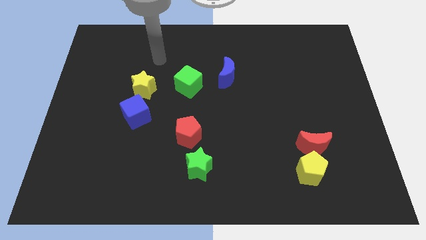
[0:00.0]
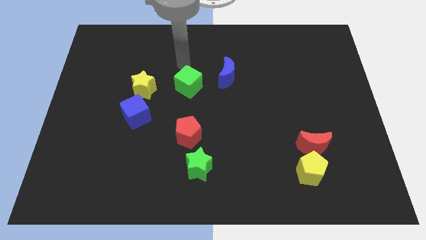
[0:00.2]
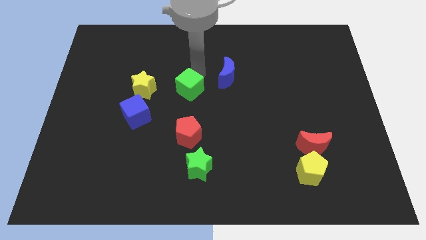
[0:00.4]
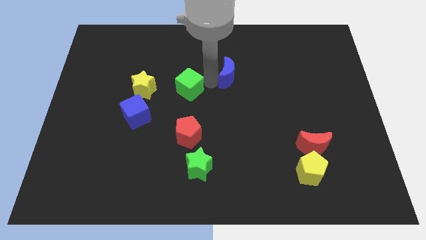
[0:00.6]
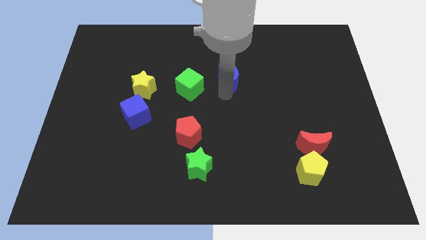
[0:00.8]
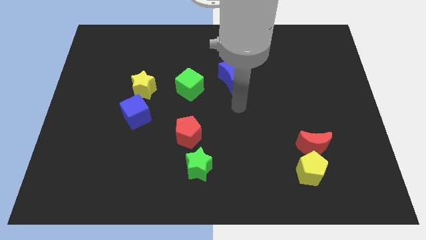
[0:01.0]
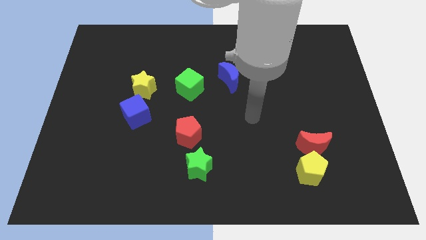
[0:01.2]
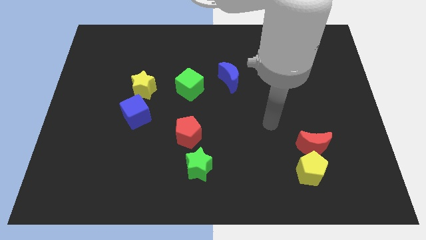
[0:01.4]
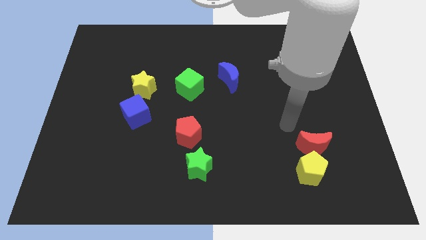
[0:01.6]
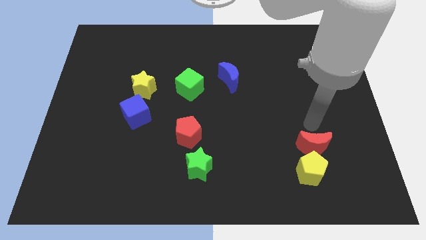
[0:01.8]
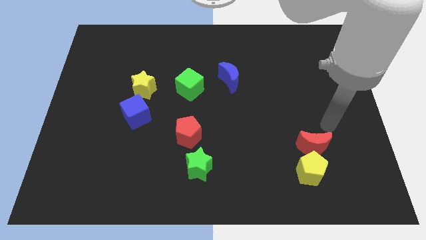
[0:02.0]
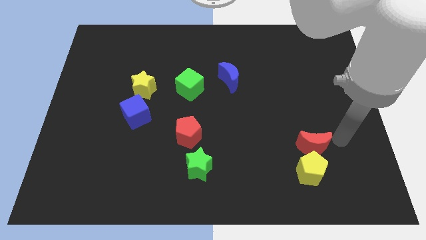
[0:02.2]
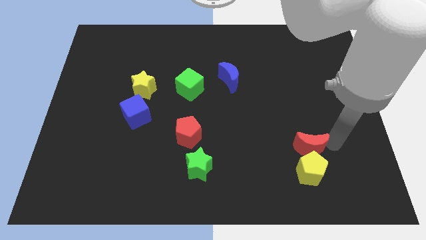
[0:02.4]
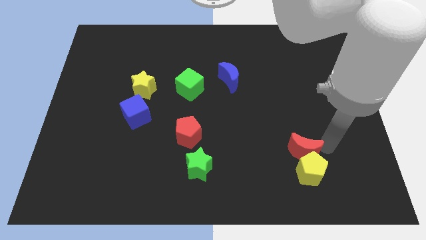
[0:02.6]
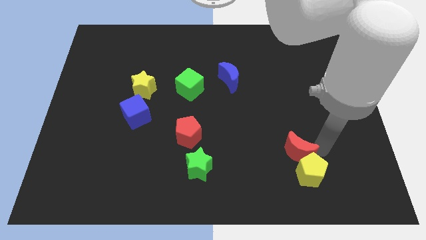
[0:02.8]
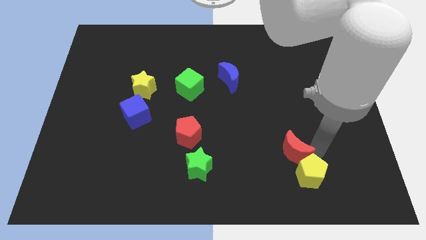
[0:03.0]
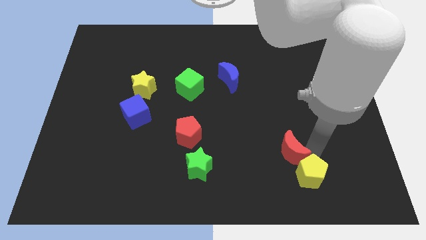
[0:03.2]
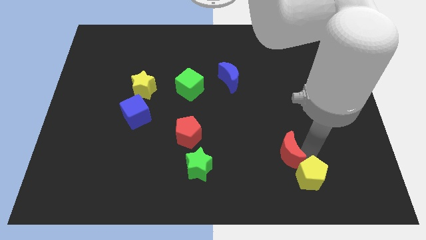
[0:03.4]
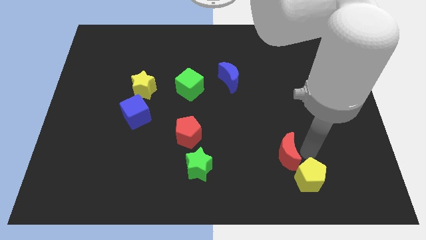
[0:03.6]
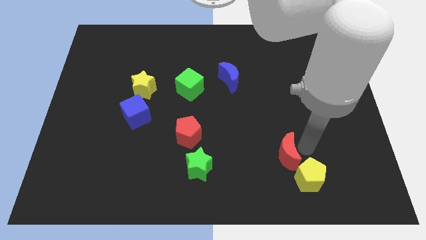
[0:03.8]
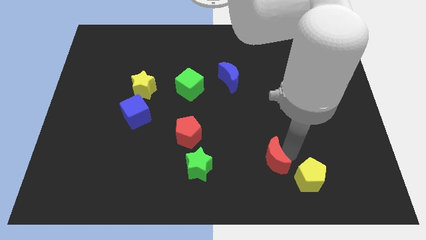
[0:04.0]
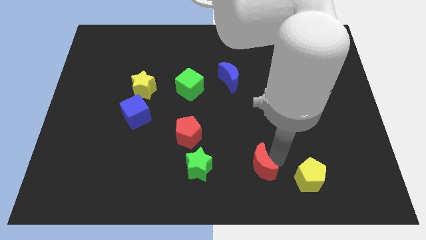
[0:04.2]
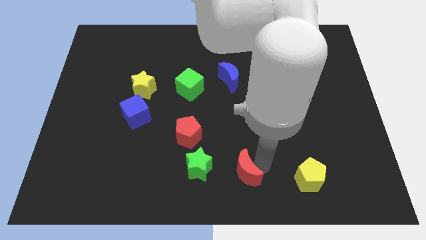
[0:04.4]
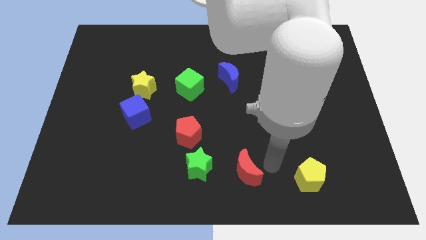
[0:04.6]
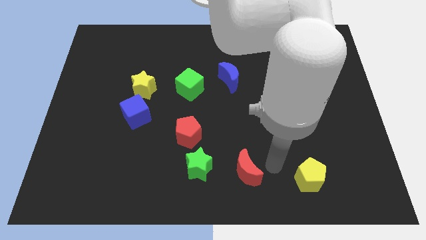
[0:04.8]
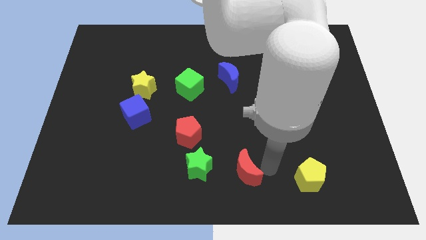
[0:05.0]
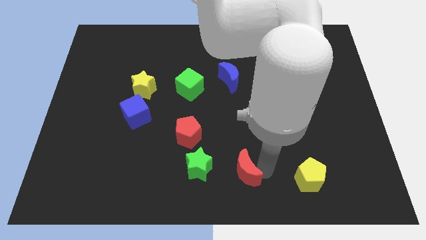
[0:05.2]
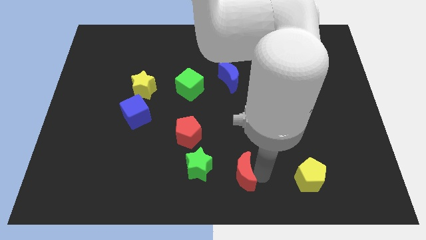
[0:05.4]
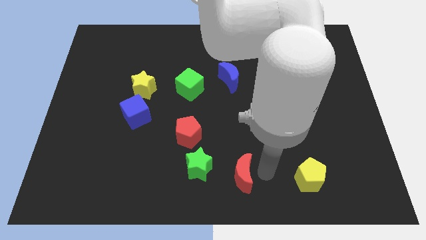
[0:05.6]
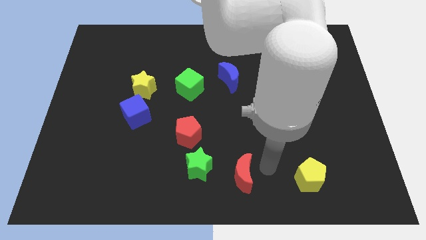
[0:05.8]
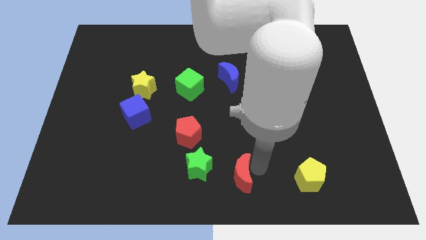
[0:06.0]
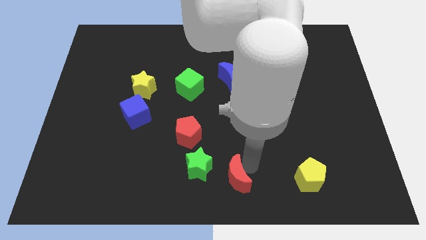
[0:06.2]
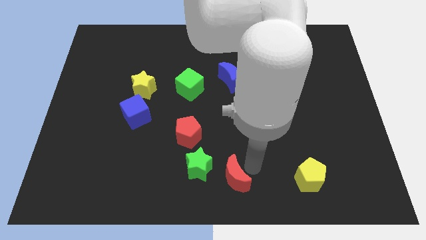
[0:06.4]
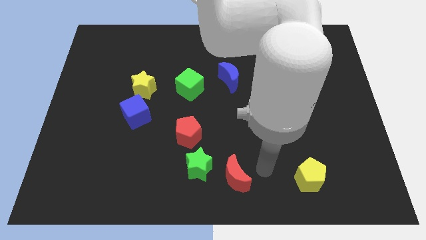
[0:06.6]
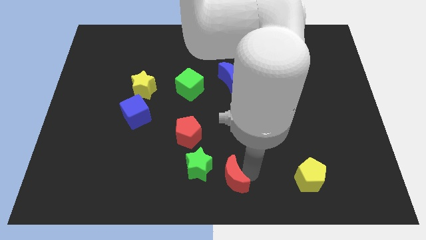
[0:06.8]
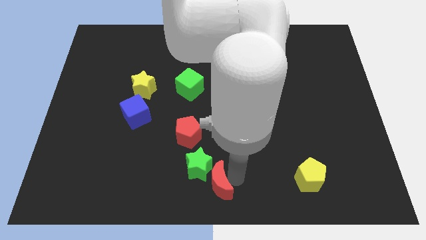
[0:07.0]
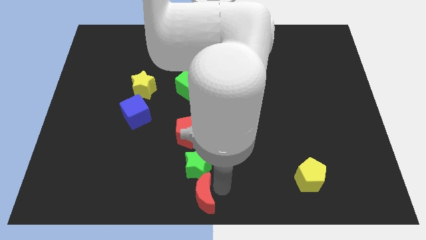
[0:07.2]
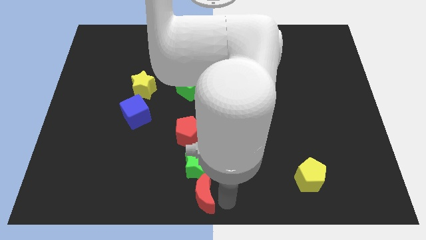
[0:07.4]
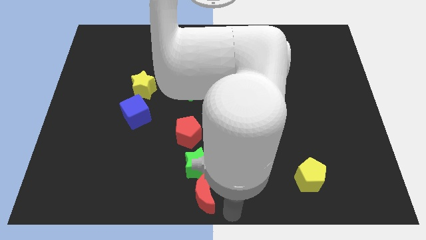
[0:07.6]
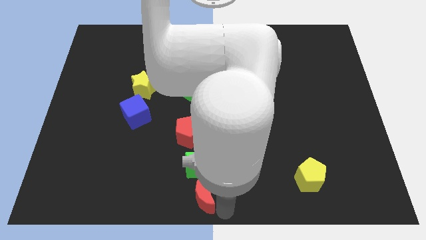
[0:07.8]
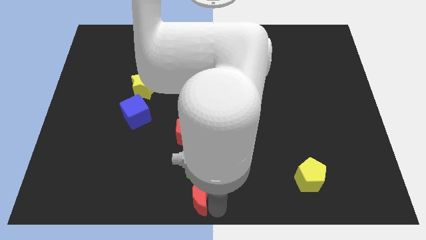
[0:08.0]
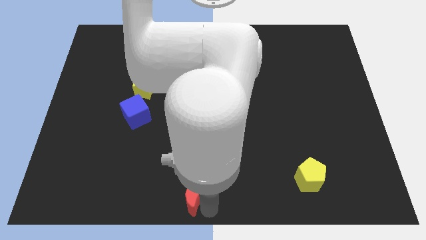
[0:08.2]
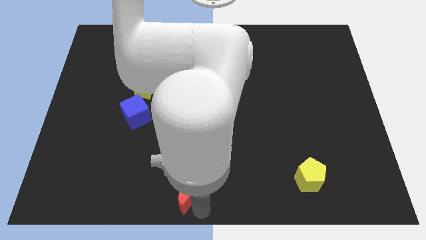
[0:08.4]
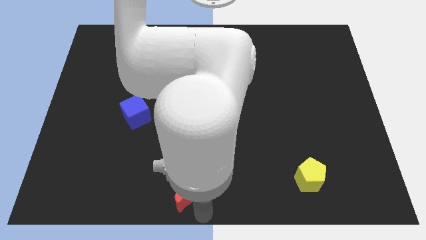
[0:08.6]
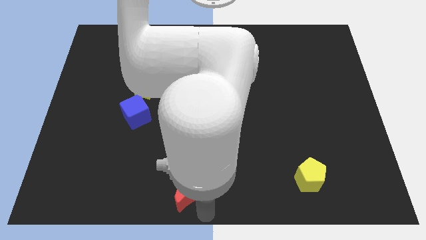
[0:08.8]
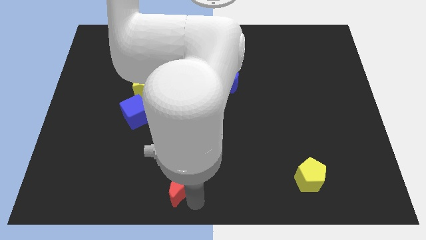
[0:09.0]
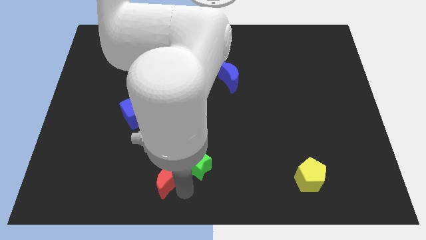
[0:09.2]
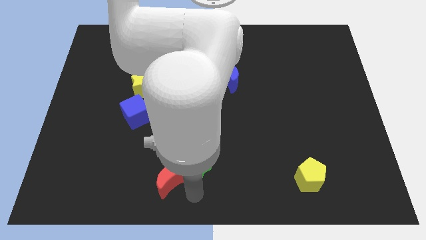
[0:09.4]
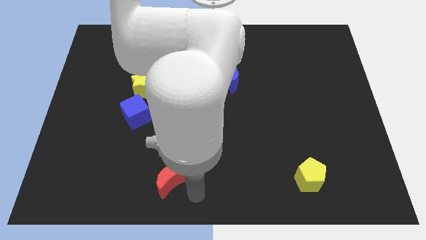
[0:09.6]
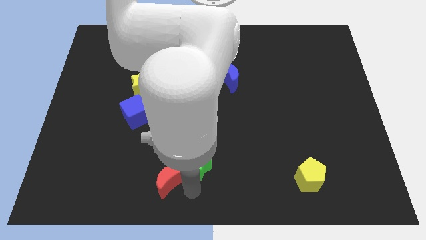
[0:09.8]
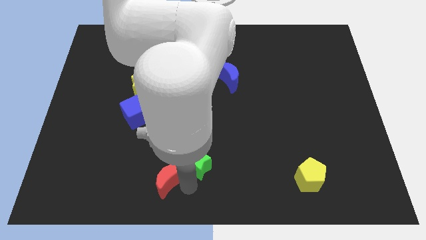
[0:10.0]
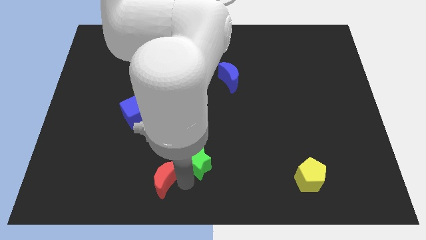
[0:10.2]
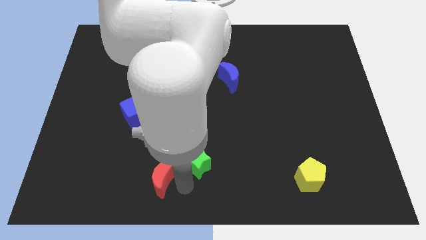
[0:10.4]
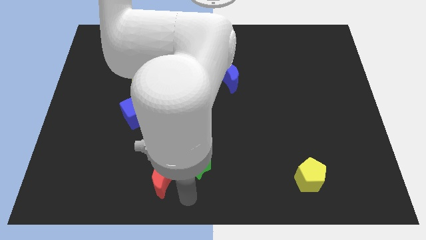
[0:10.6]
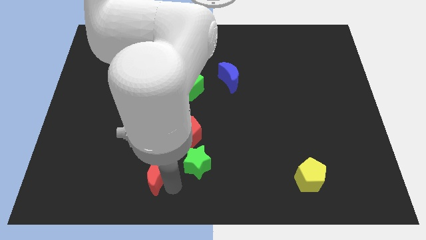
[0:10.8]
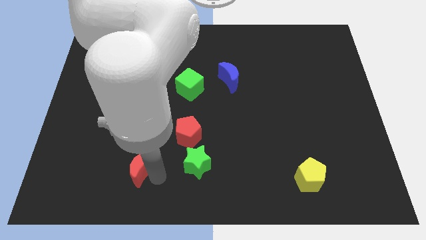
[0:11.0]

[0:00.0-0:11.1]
put the red moon to the bottom of the blue cube

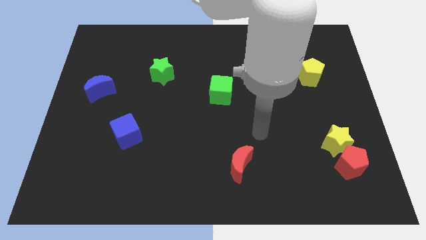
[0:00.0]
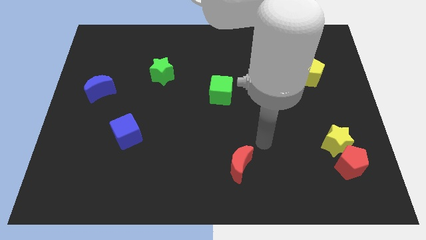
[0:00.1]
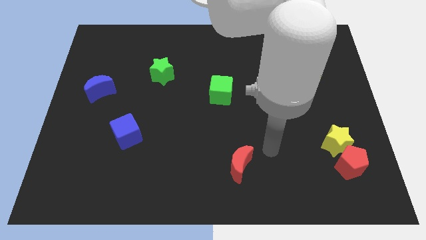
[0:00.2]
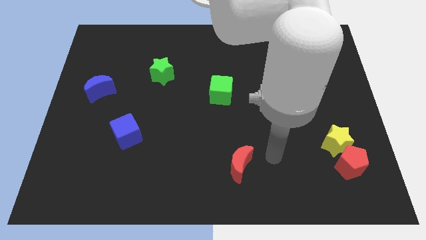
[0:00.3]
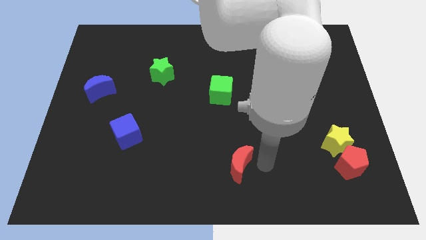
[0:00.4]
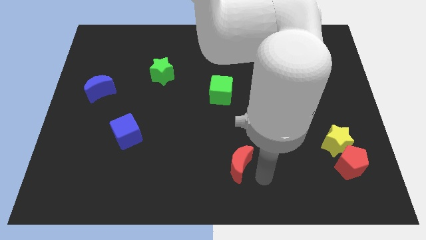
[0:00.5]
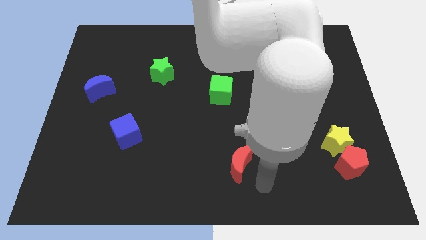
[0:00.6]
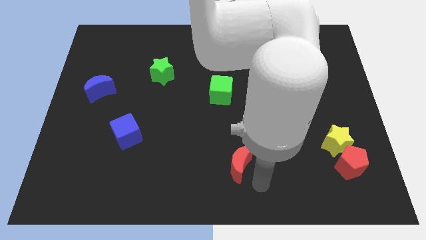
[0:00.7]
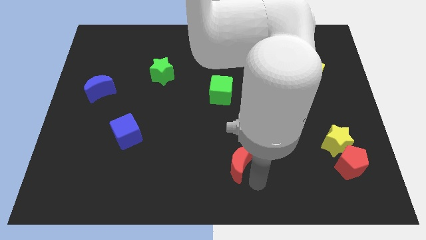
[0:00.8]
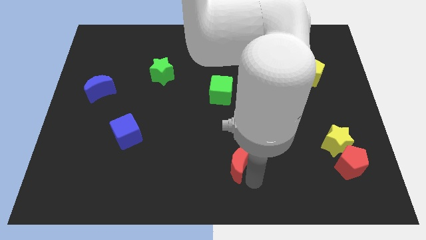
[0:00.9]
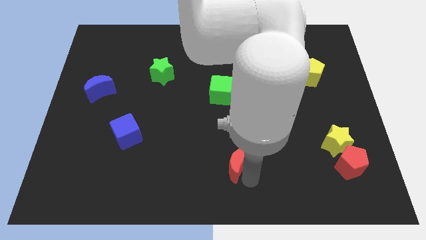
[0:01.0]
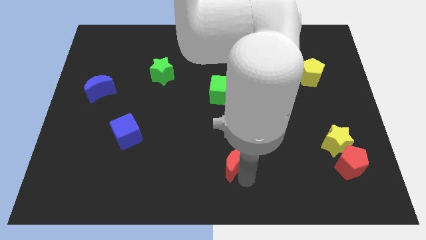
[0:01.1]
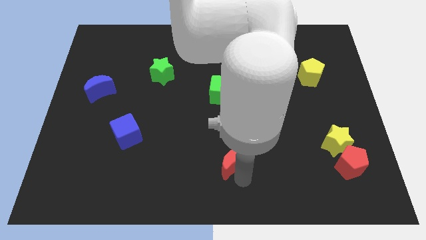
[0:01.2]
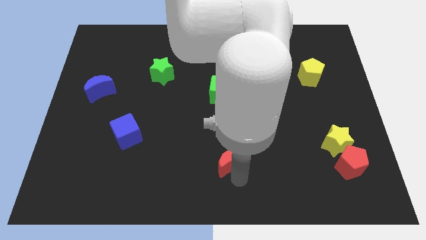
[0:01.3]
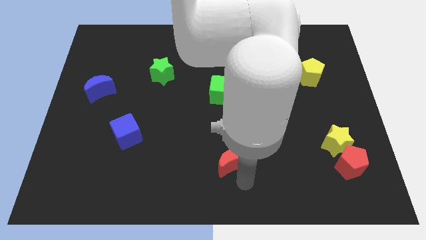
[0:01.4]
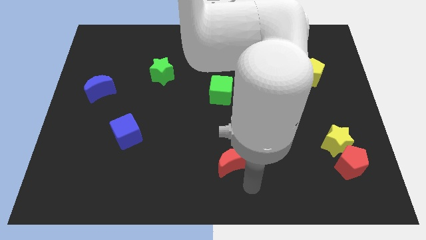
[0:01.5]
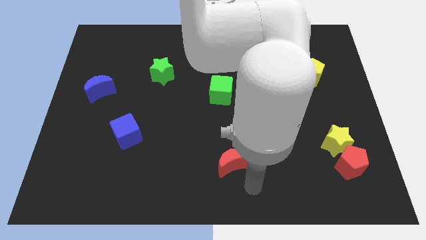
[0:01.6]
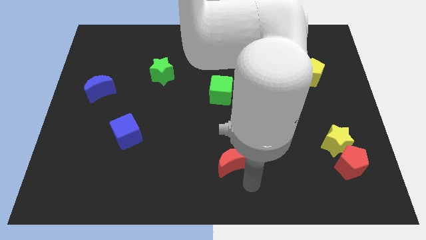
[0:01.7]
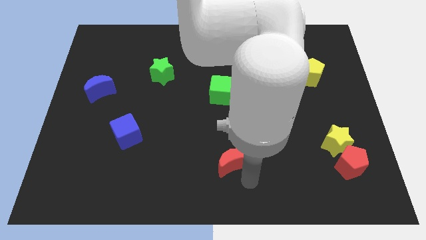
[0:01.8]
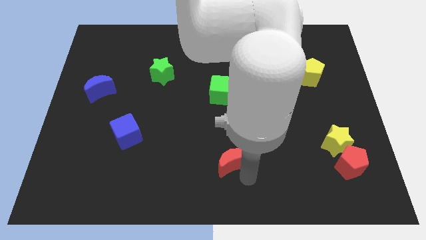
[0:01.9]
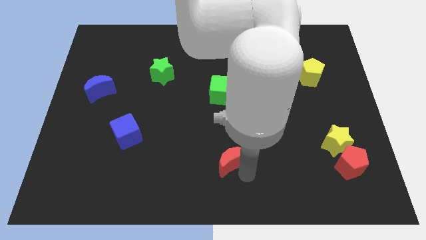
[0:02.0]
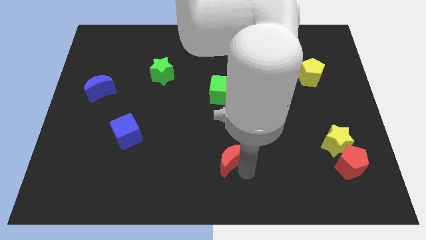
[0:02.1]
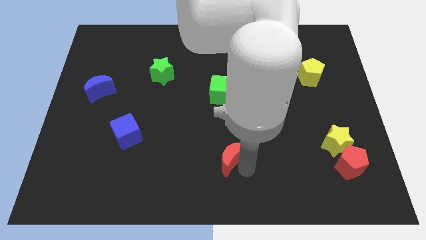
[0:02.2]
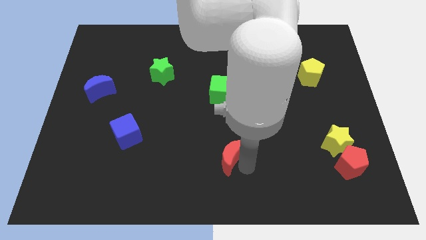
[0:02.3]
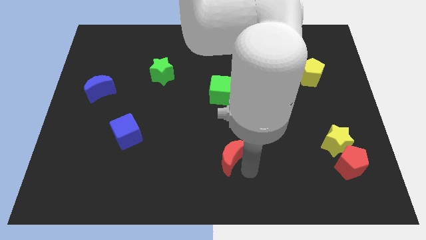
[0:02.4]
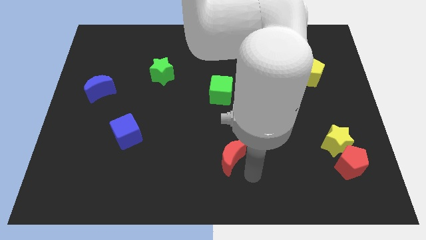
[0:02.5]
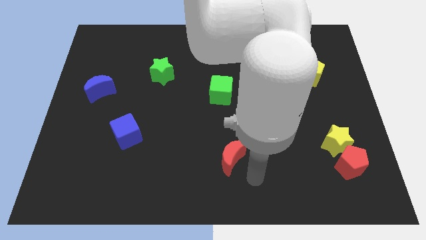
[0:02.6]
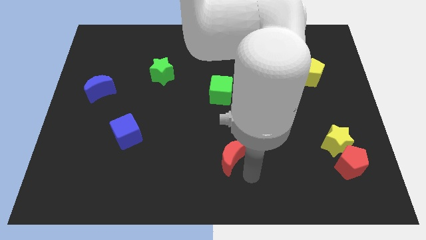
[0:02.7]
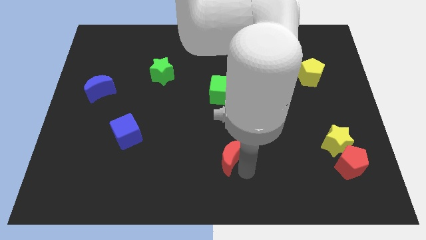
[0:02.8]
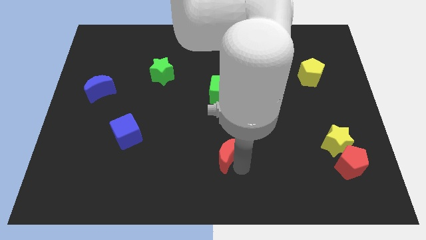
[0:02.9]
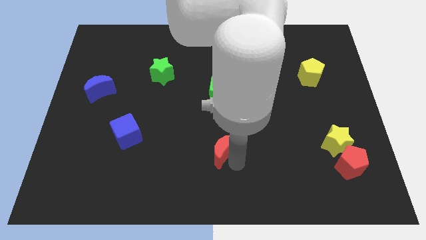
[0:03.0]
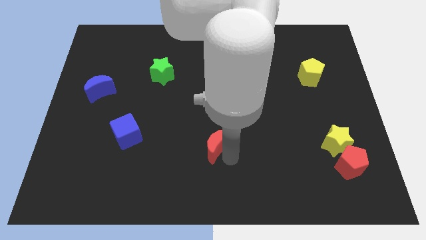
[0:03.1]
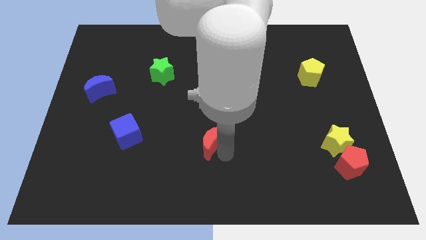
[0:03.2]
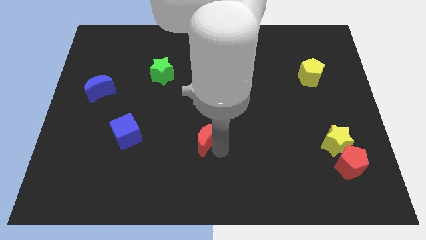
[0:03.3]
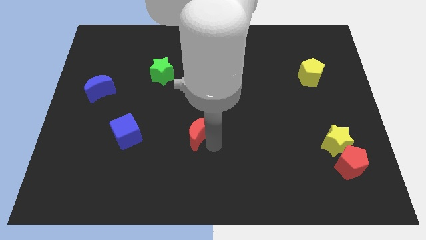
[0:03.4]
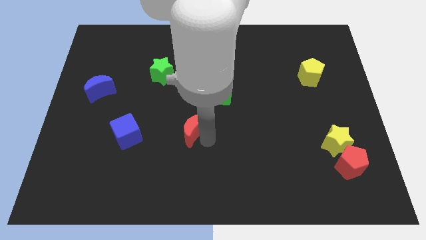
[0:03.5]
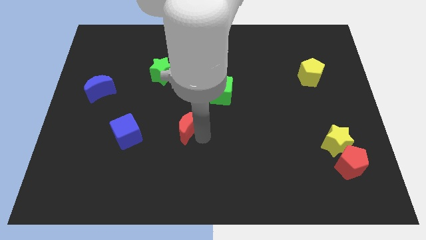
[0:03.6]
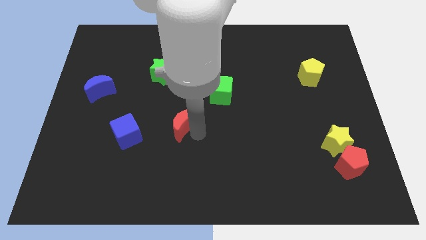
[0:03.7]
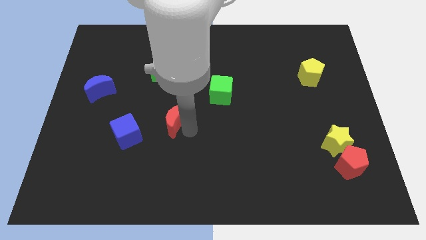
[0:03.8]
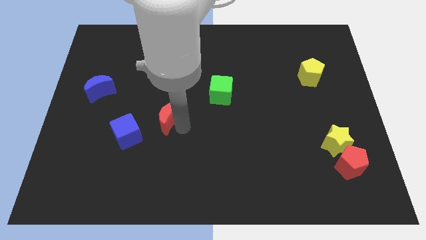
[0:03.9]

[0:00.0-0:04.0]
slide the red moon to the bottom of the green star
